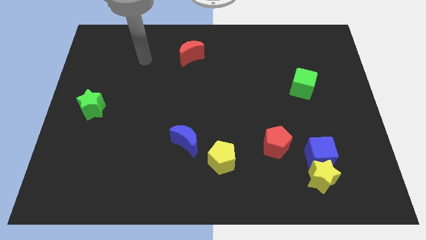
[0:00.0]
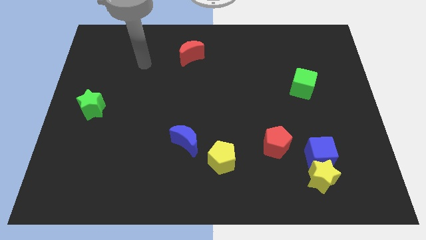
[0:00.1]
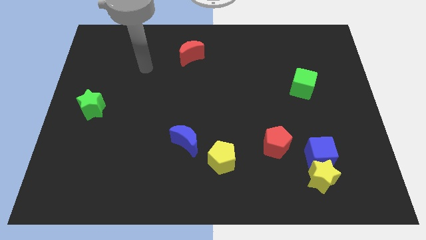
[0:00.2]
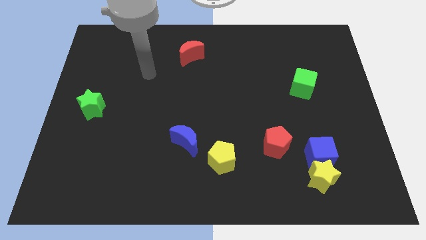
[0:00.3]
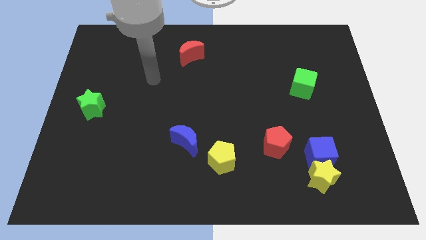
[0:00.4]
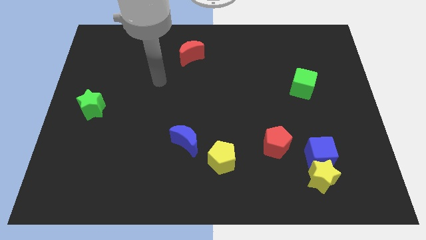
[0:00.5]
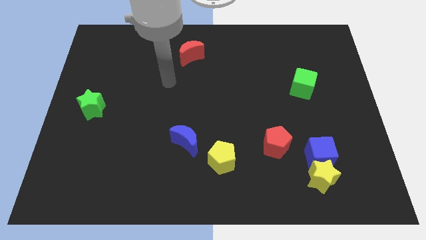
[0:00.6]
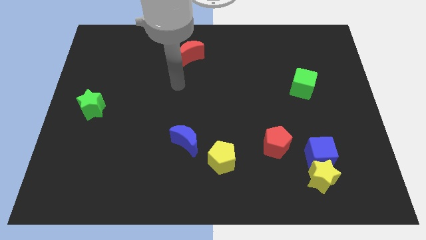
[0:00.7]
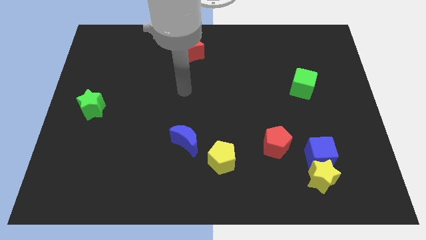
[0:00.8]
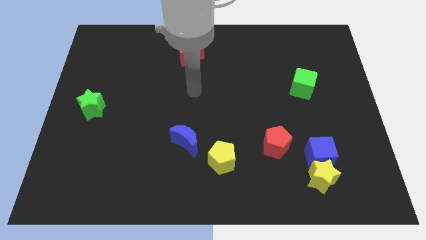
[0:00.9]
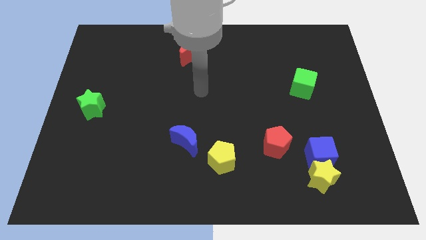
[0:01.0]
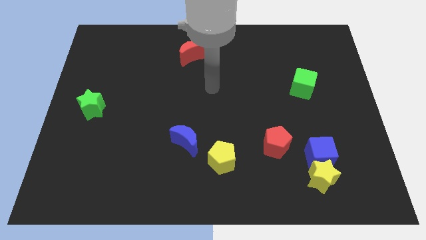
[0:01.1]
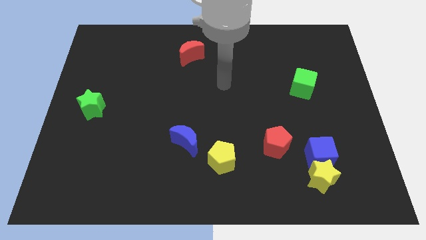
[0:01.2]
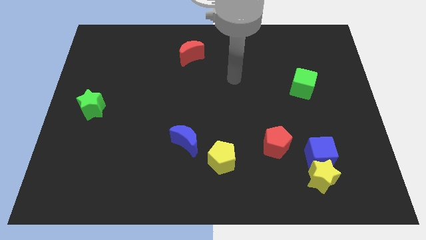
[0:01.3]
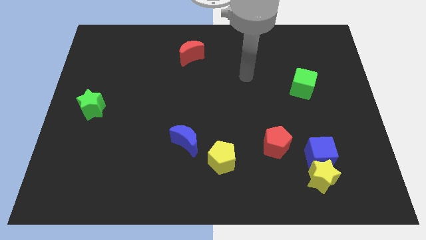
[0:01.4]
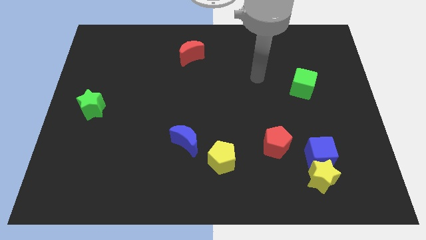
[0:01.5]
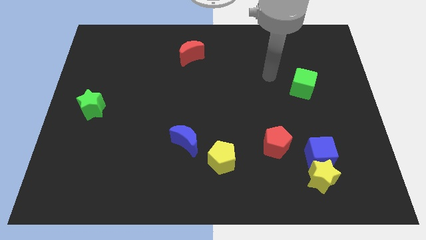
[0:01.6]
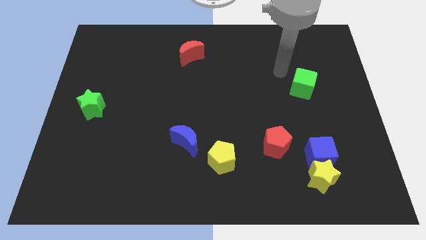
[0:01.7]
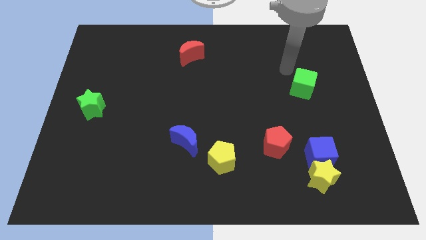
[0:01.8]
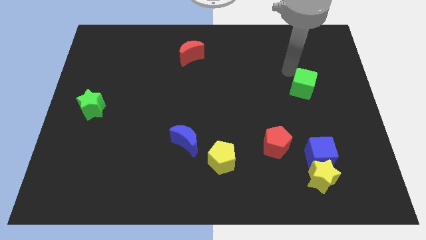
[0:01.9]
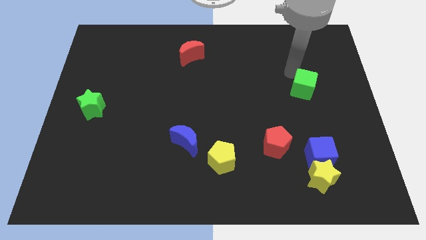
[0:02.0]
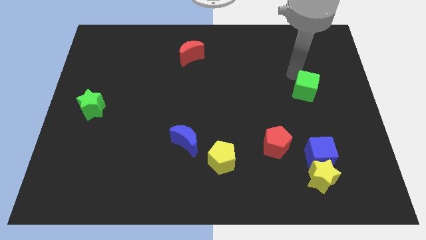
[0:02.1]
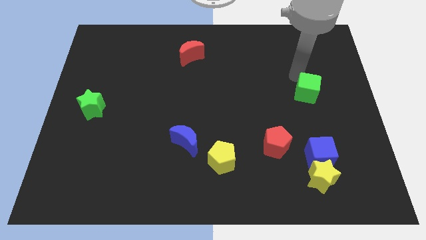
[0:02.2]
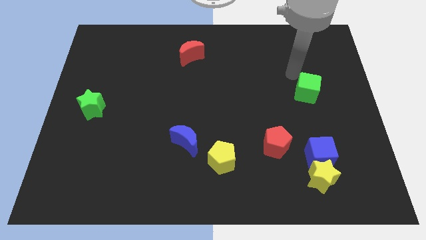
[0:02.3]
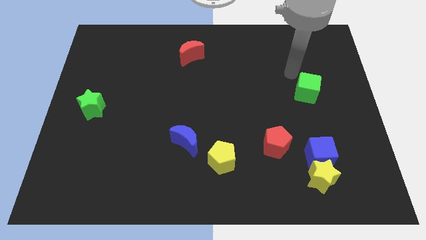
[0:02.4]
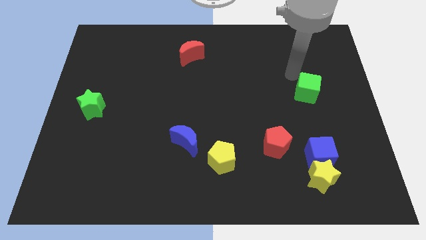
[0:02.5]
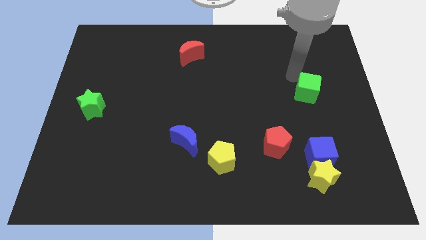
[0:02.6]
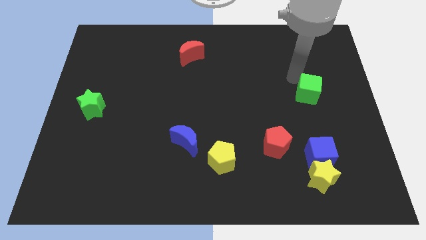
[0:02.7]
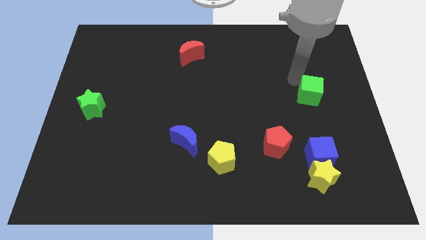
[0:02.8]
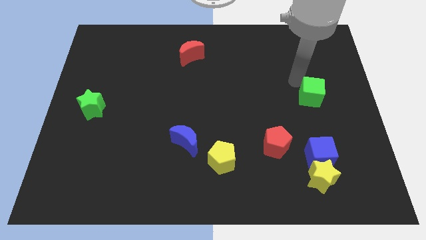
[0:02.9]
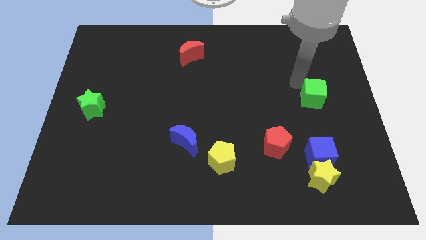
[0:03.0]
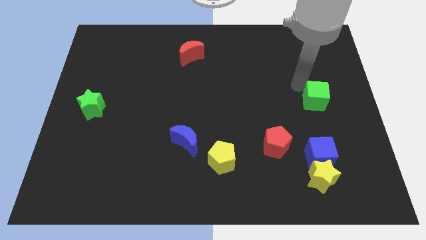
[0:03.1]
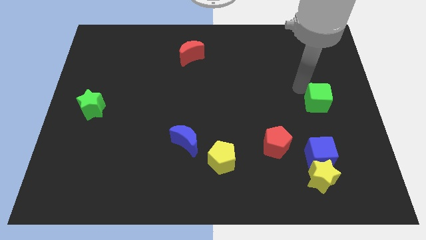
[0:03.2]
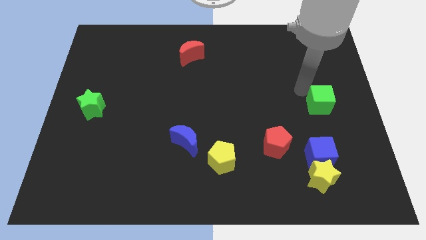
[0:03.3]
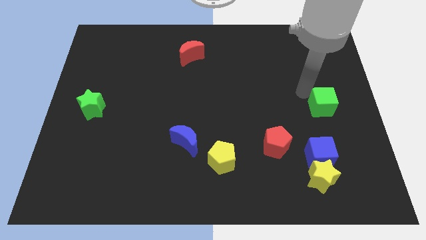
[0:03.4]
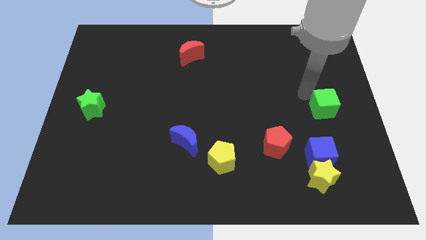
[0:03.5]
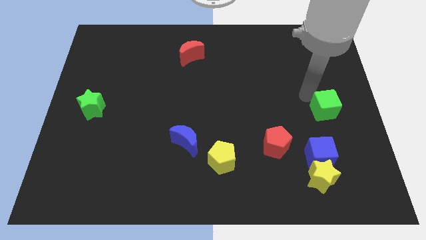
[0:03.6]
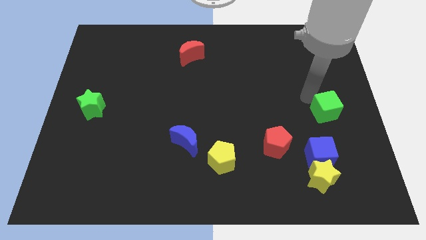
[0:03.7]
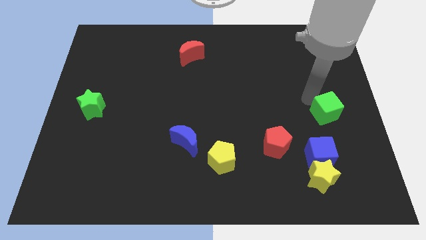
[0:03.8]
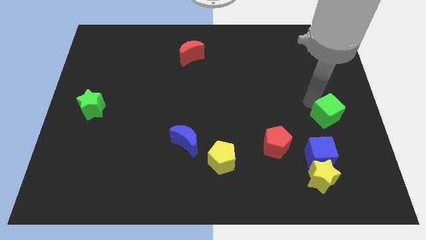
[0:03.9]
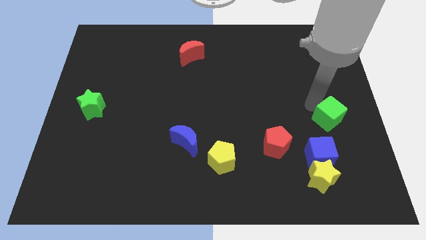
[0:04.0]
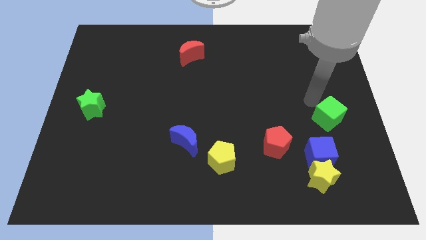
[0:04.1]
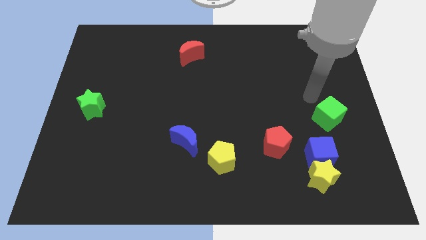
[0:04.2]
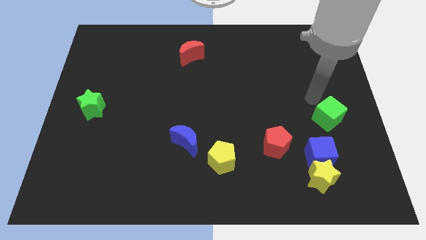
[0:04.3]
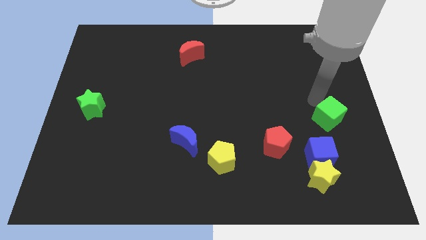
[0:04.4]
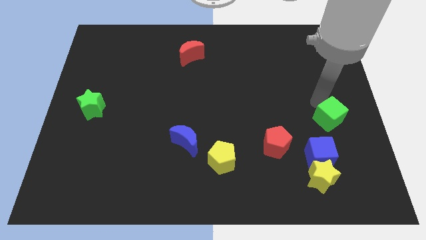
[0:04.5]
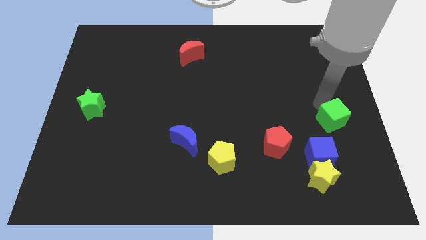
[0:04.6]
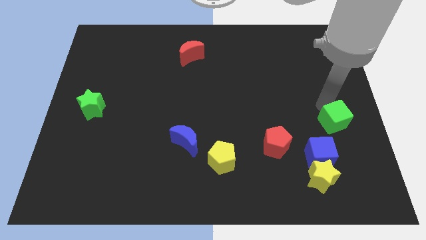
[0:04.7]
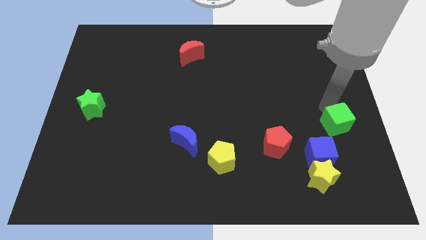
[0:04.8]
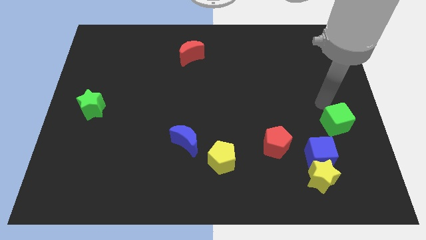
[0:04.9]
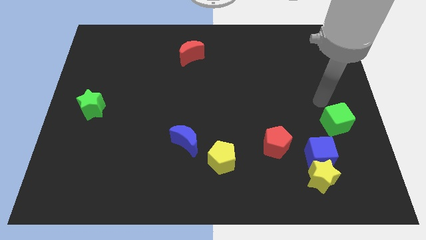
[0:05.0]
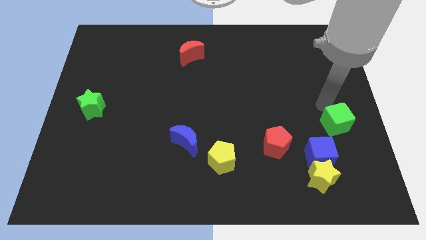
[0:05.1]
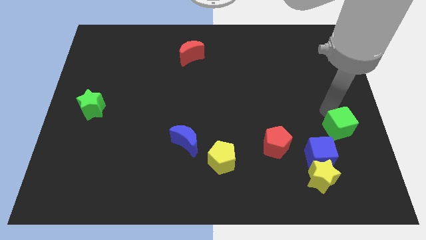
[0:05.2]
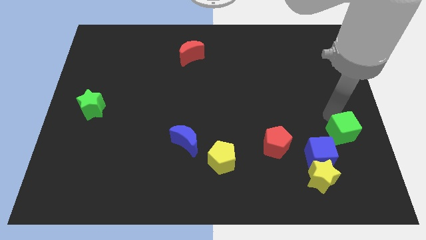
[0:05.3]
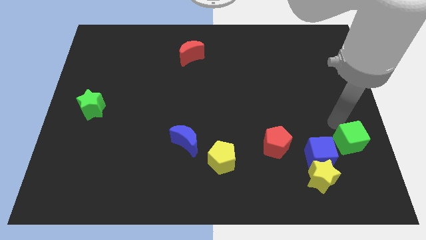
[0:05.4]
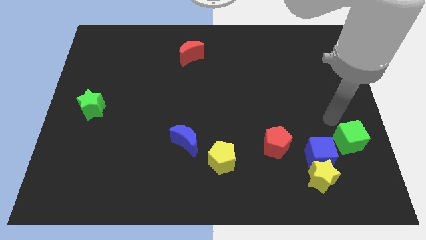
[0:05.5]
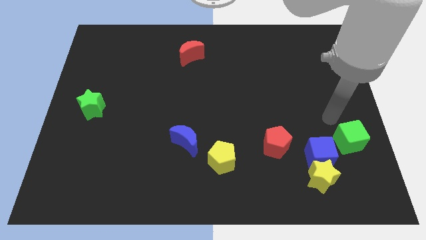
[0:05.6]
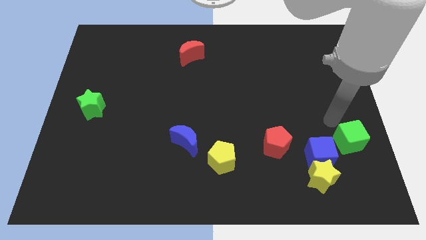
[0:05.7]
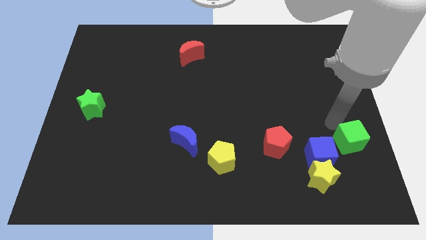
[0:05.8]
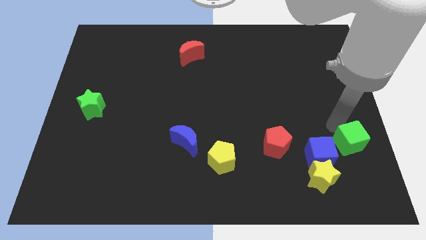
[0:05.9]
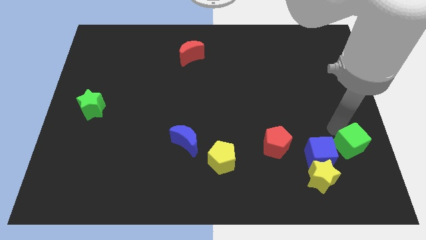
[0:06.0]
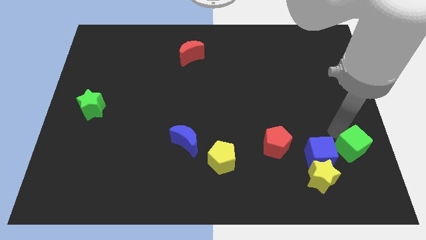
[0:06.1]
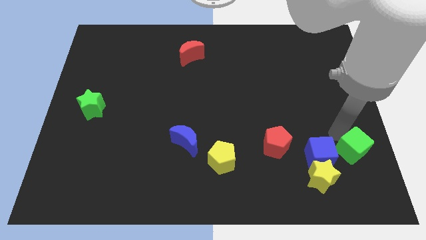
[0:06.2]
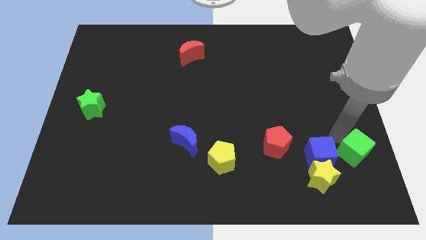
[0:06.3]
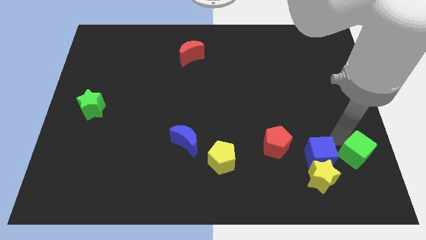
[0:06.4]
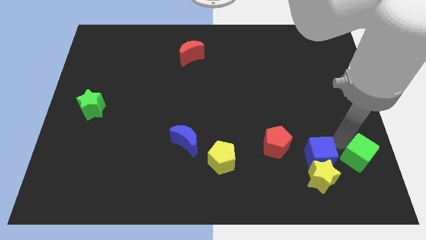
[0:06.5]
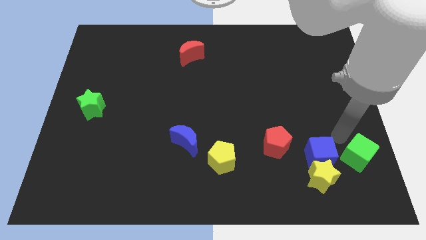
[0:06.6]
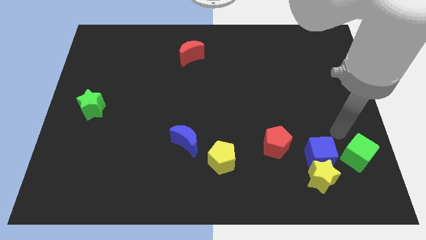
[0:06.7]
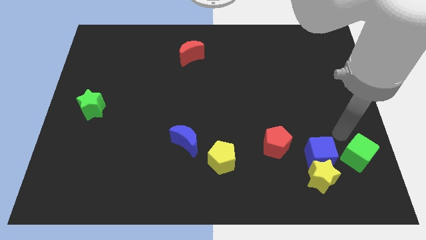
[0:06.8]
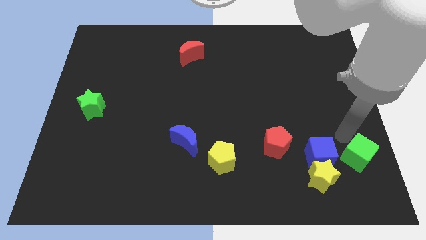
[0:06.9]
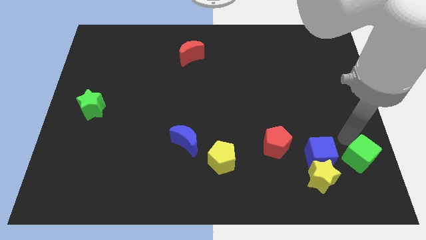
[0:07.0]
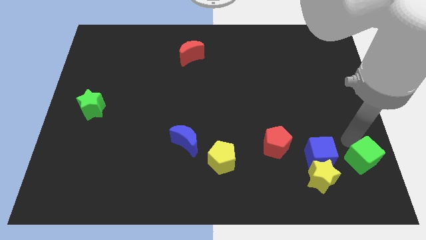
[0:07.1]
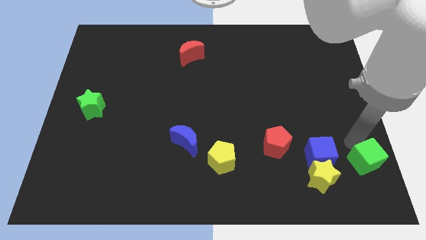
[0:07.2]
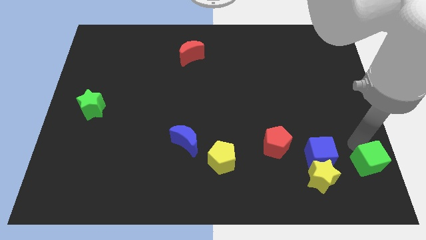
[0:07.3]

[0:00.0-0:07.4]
put the green cube to the bottom right corner
